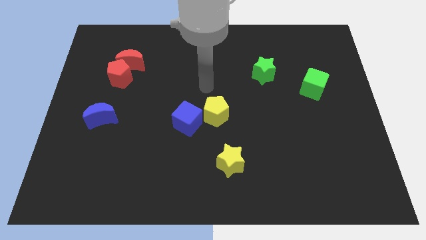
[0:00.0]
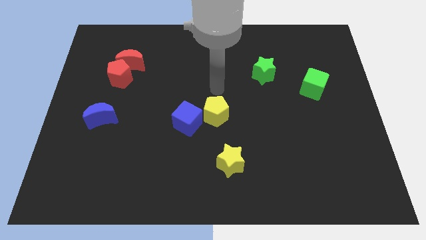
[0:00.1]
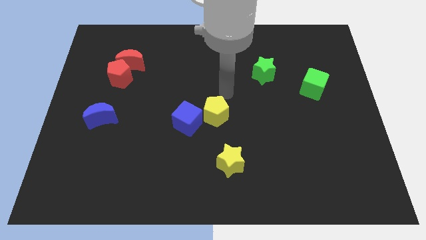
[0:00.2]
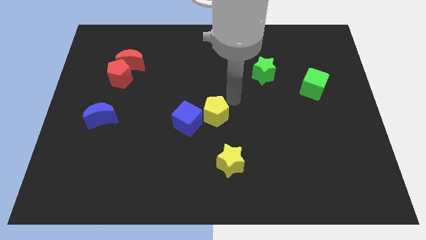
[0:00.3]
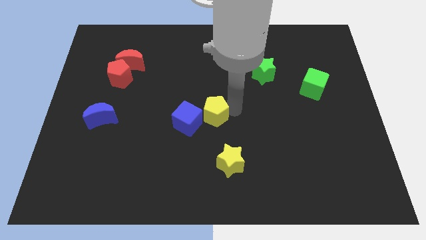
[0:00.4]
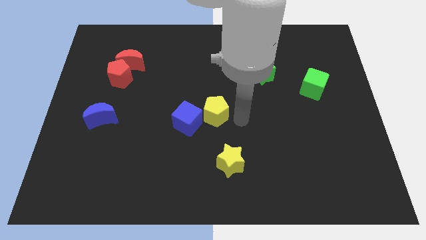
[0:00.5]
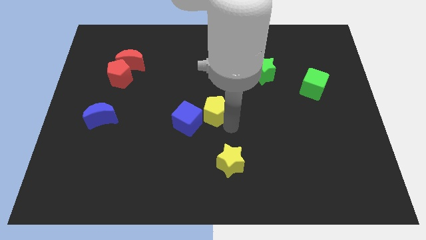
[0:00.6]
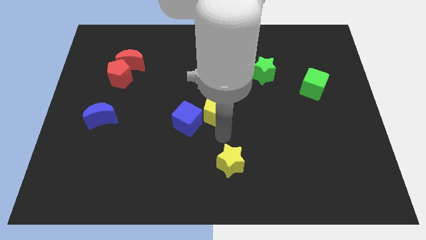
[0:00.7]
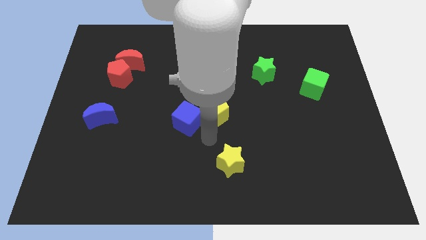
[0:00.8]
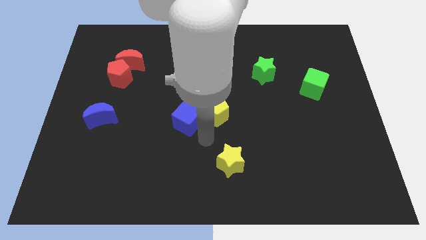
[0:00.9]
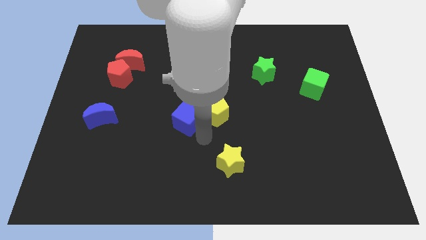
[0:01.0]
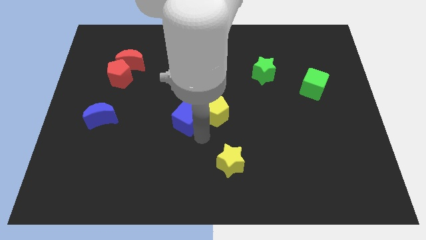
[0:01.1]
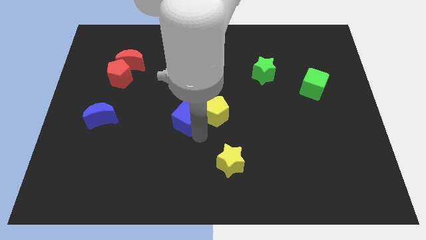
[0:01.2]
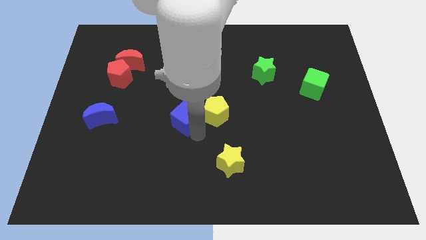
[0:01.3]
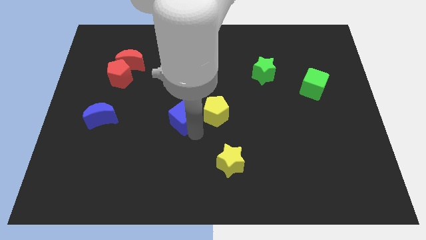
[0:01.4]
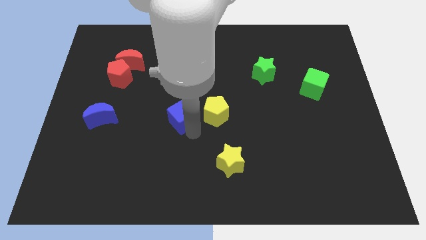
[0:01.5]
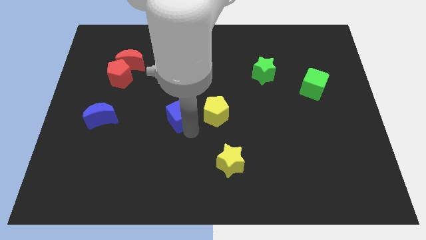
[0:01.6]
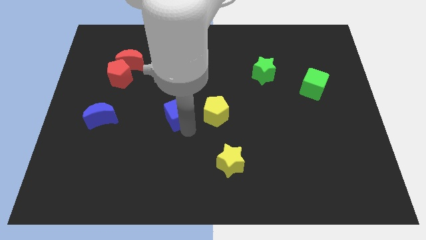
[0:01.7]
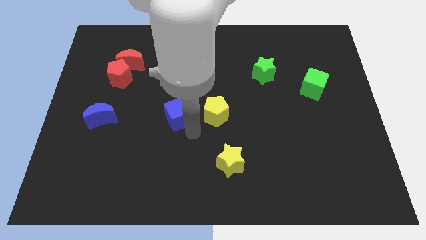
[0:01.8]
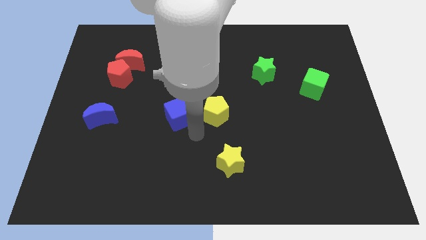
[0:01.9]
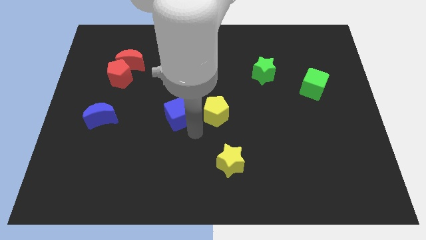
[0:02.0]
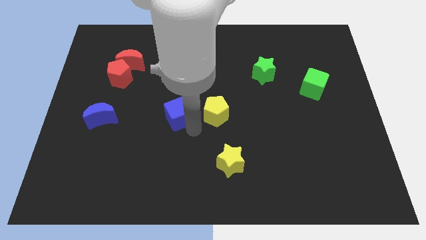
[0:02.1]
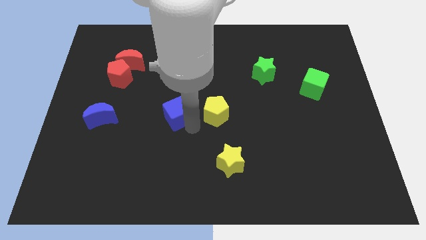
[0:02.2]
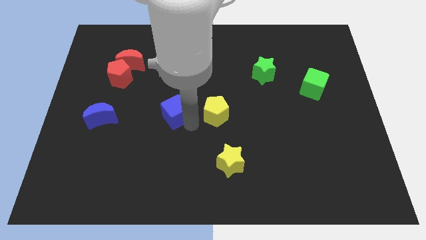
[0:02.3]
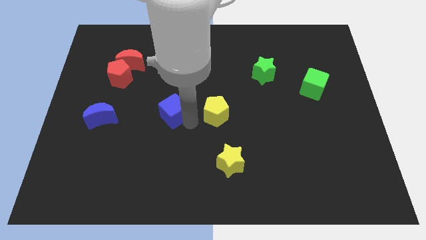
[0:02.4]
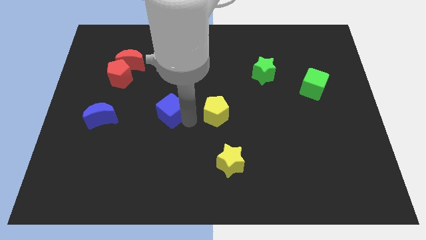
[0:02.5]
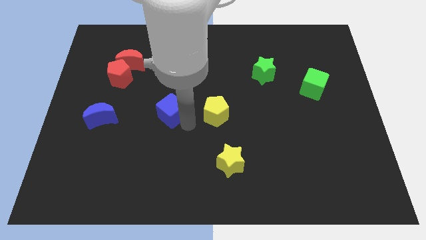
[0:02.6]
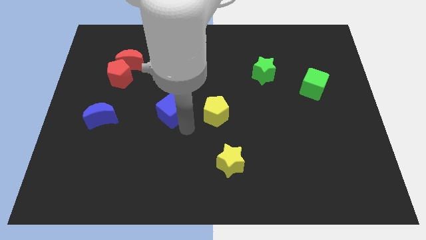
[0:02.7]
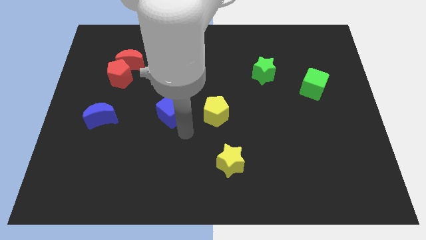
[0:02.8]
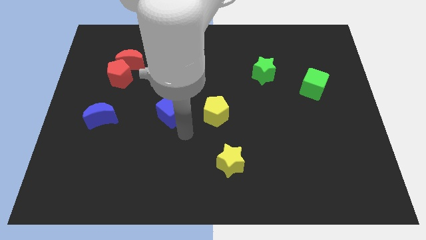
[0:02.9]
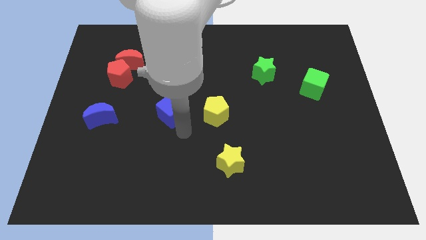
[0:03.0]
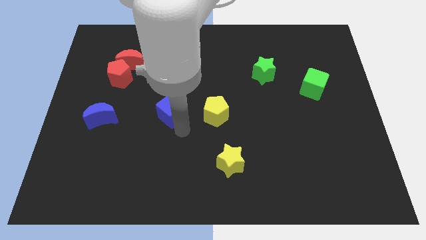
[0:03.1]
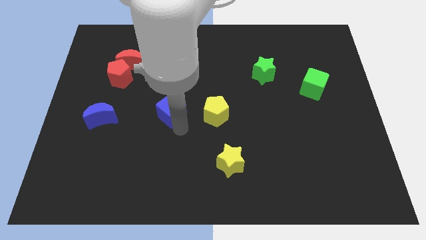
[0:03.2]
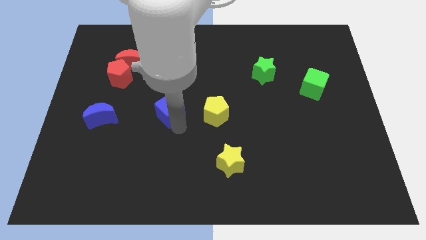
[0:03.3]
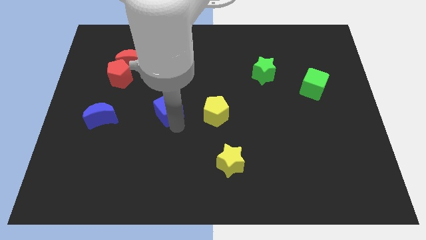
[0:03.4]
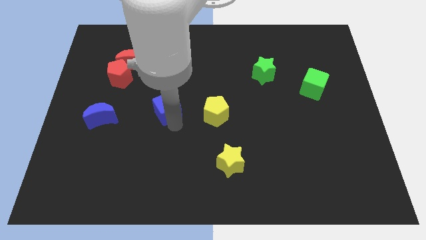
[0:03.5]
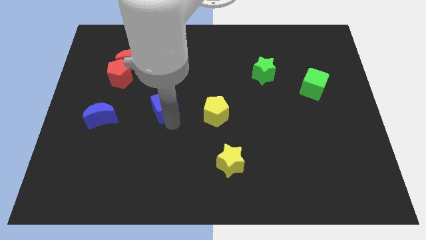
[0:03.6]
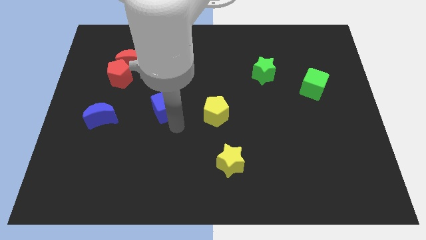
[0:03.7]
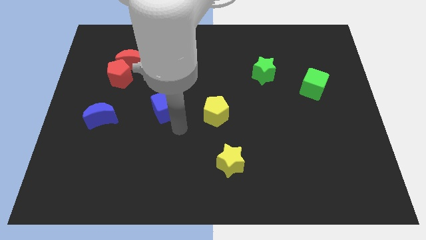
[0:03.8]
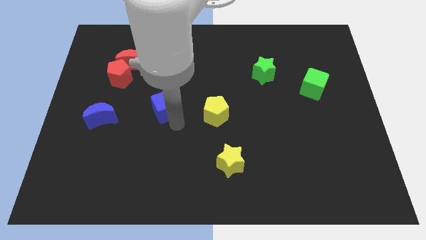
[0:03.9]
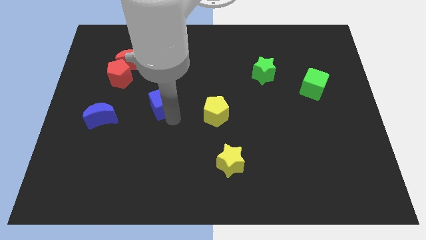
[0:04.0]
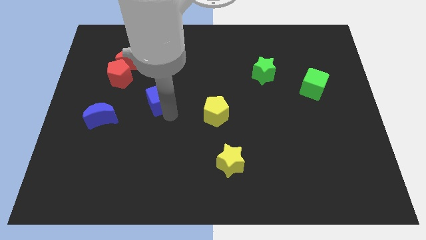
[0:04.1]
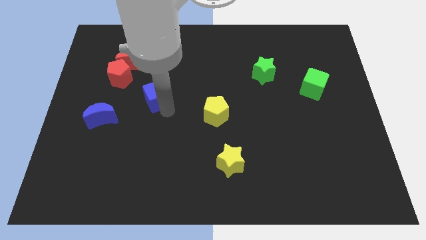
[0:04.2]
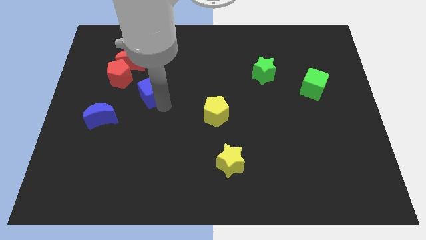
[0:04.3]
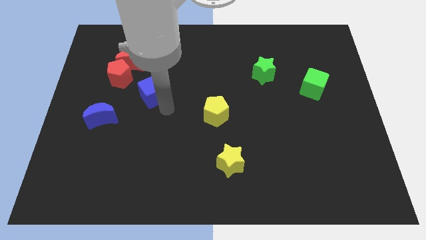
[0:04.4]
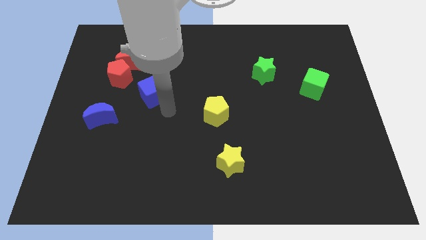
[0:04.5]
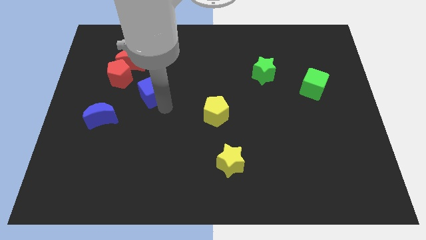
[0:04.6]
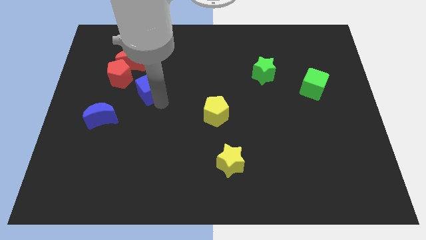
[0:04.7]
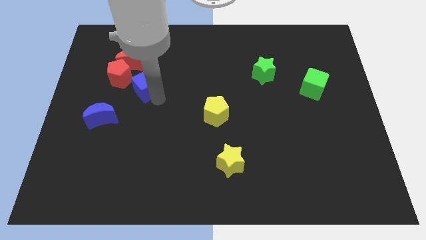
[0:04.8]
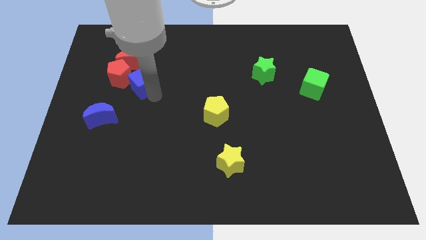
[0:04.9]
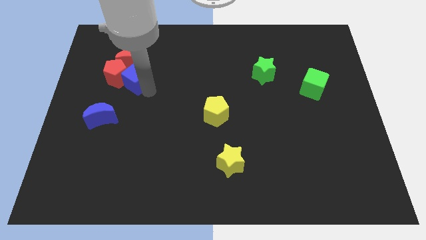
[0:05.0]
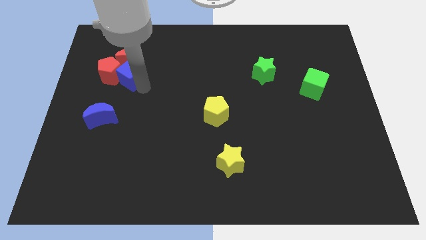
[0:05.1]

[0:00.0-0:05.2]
put the blue cube towards the red moon

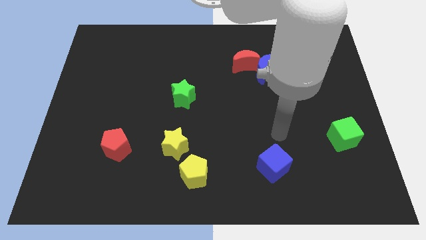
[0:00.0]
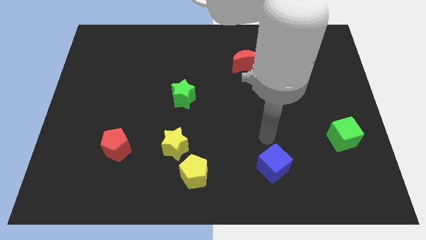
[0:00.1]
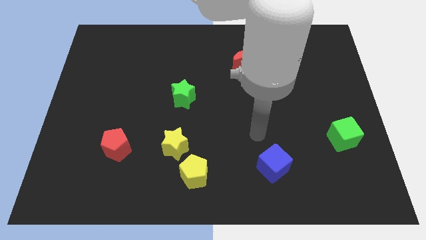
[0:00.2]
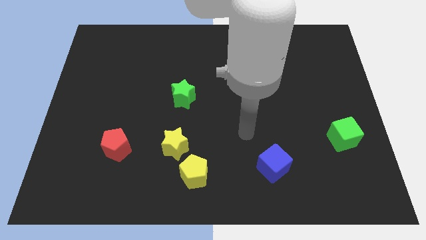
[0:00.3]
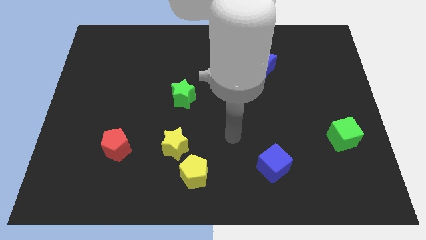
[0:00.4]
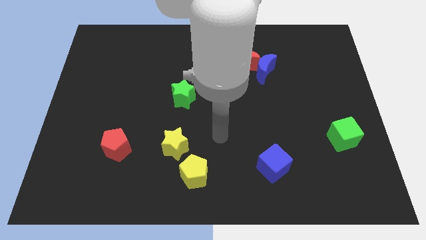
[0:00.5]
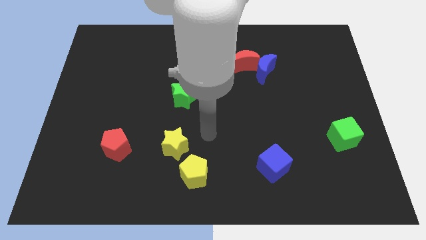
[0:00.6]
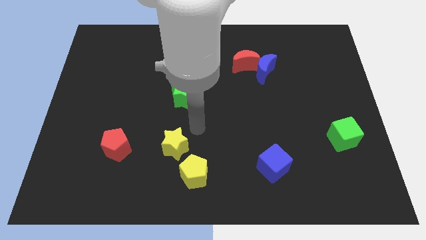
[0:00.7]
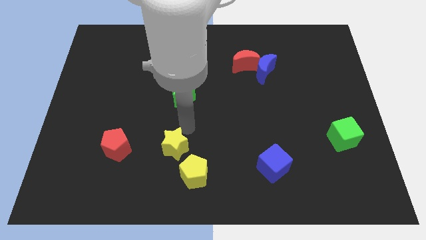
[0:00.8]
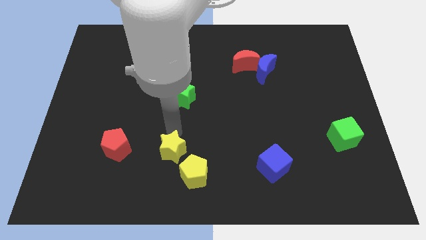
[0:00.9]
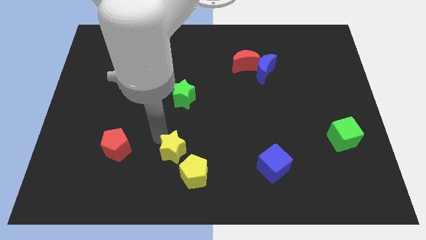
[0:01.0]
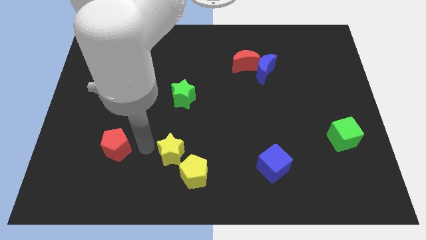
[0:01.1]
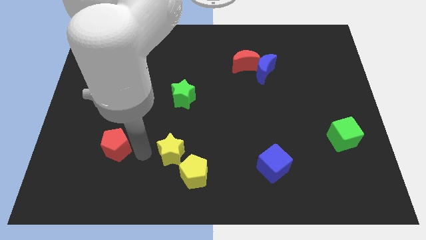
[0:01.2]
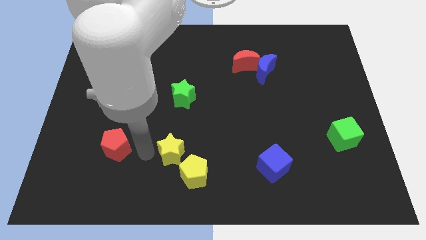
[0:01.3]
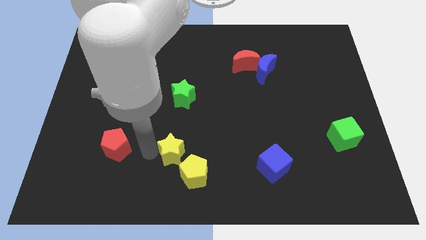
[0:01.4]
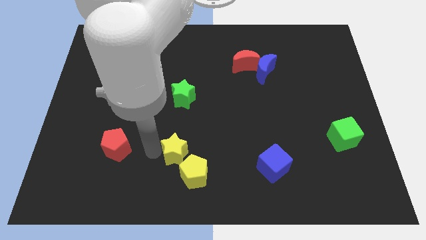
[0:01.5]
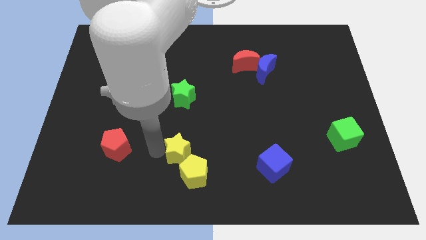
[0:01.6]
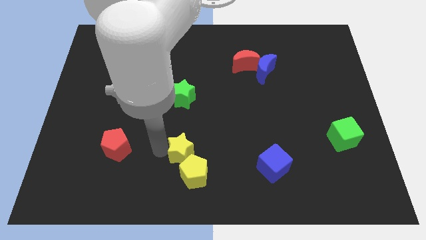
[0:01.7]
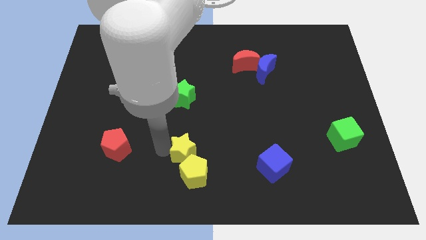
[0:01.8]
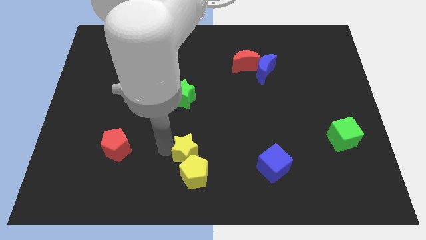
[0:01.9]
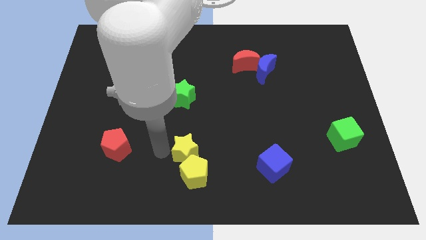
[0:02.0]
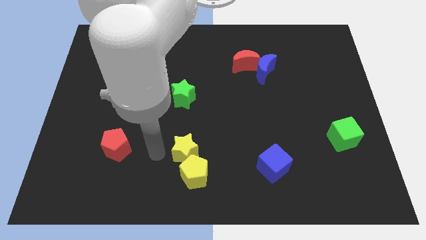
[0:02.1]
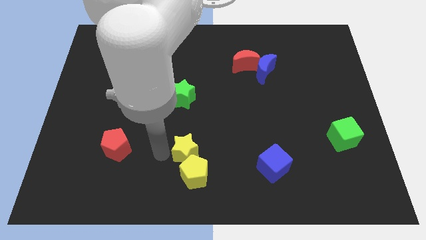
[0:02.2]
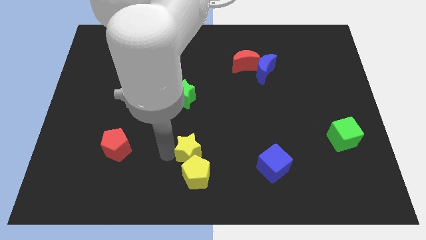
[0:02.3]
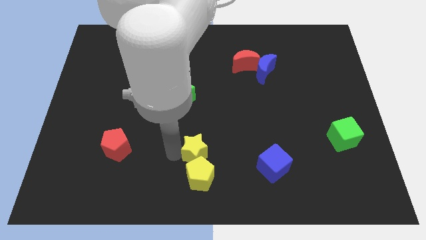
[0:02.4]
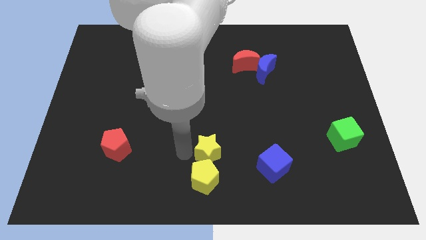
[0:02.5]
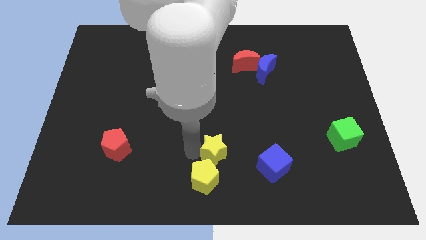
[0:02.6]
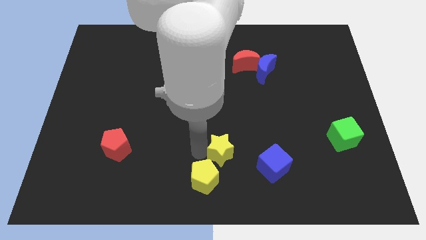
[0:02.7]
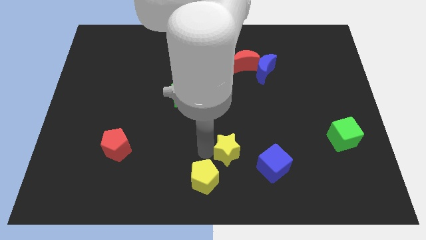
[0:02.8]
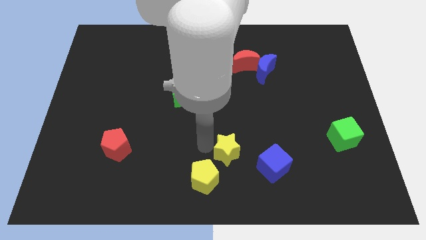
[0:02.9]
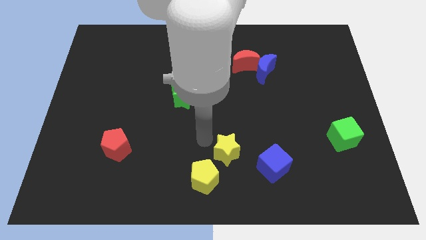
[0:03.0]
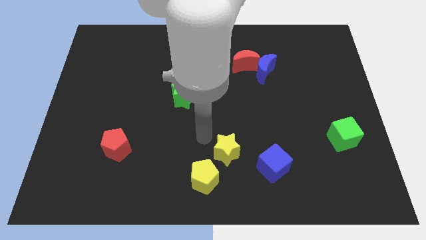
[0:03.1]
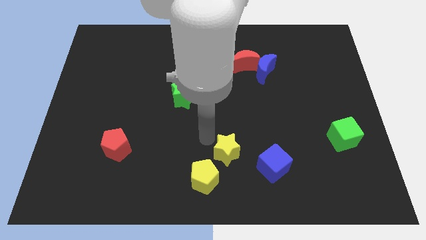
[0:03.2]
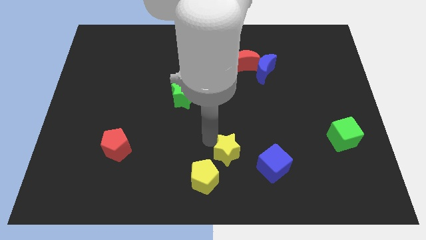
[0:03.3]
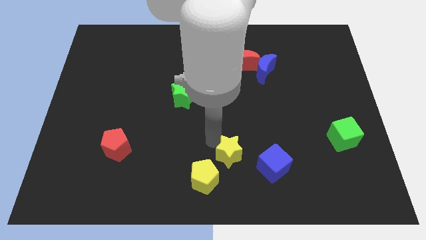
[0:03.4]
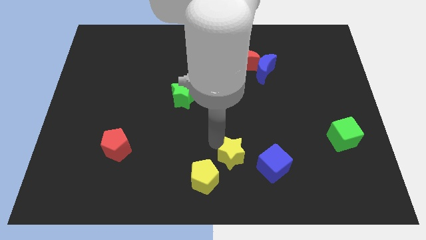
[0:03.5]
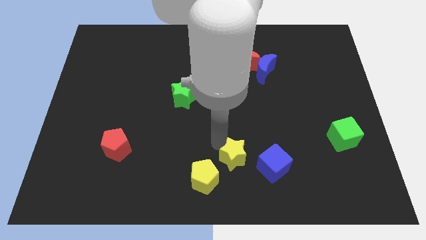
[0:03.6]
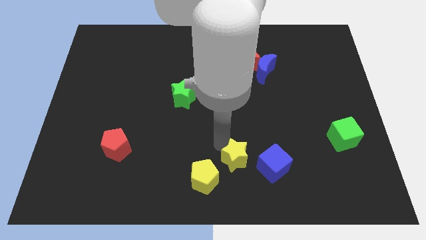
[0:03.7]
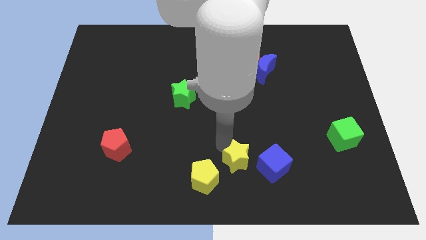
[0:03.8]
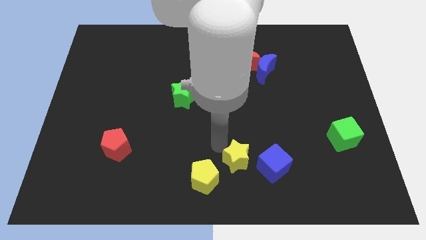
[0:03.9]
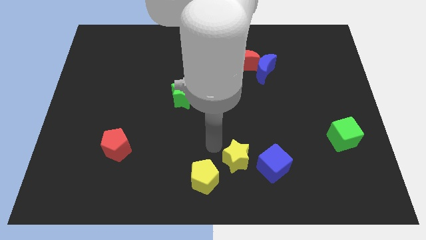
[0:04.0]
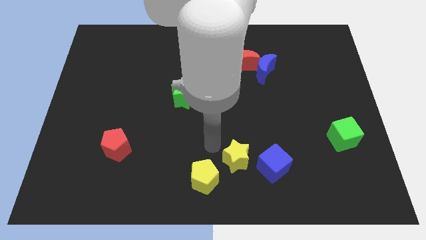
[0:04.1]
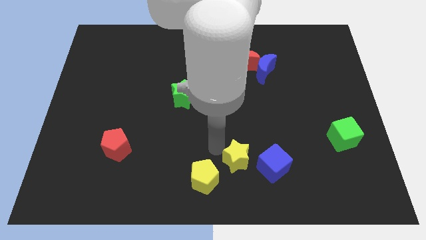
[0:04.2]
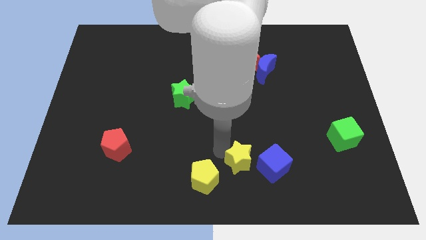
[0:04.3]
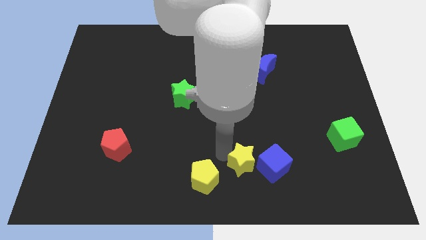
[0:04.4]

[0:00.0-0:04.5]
move the yellow star close to the blue cube
